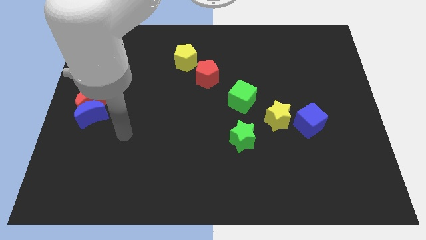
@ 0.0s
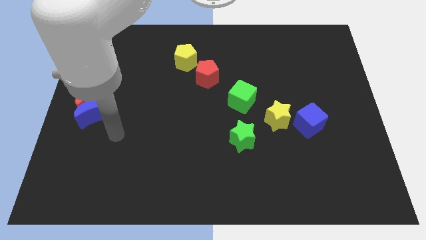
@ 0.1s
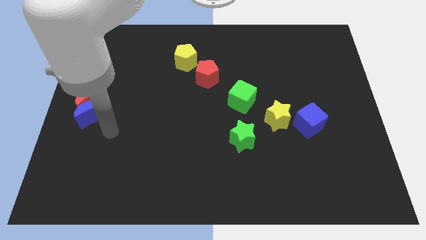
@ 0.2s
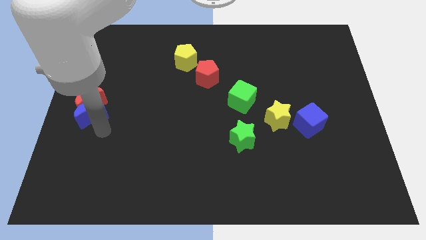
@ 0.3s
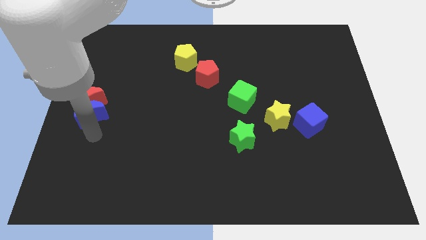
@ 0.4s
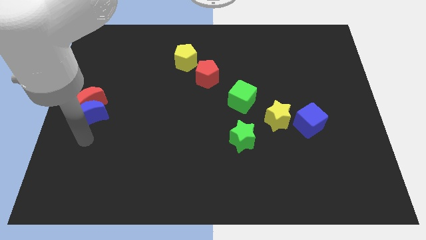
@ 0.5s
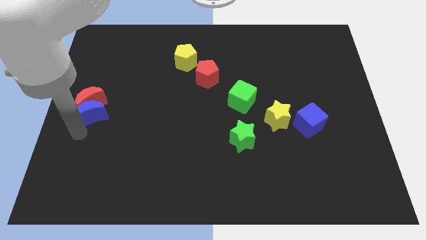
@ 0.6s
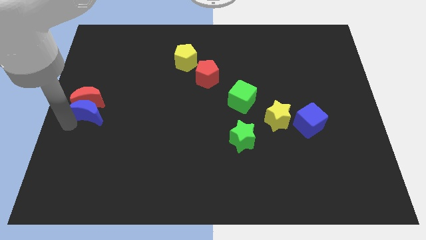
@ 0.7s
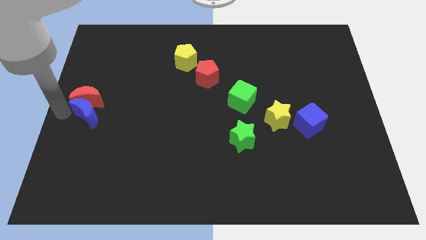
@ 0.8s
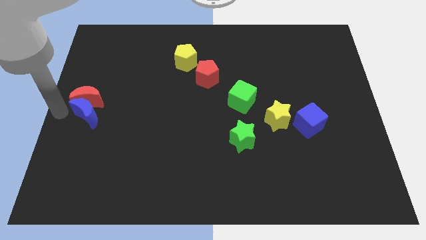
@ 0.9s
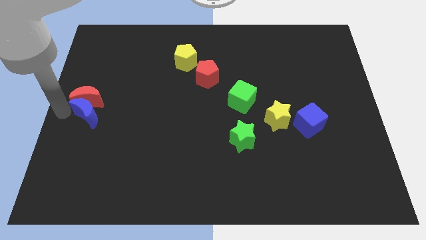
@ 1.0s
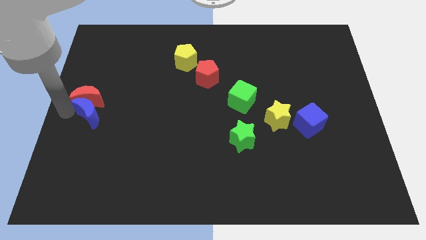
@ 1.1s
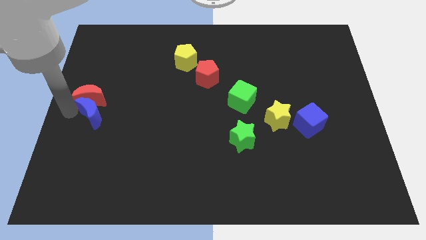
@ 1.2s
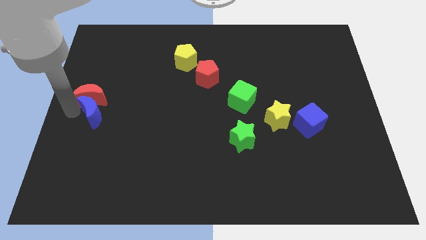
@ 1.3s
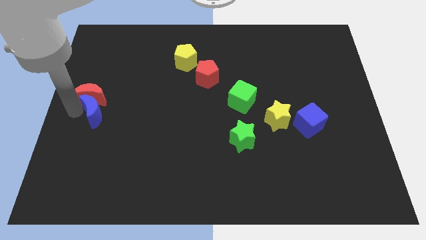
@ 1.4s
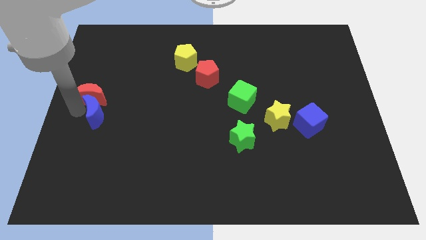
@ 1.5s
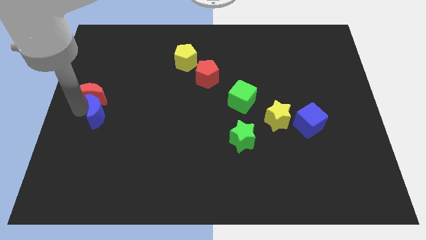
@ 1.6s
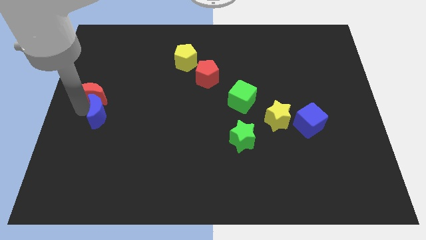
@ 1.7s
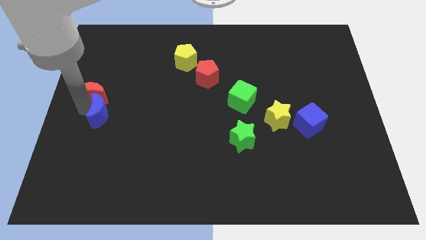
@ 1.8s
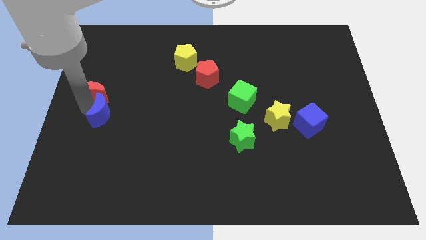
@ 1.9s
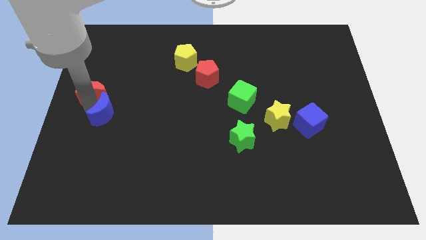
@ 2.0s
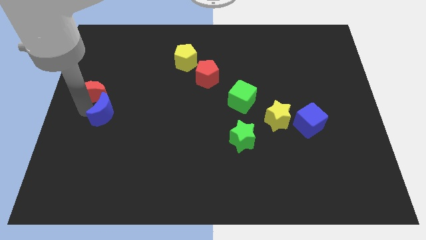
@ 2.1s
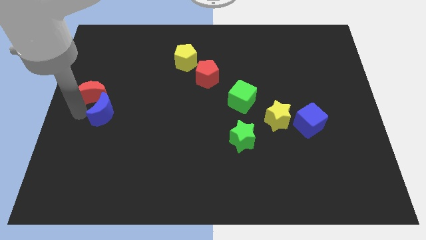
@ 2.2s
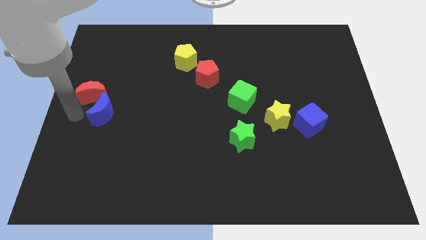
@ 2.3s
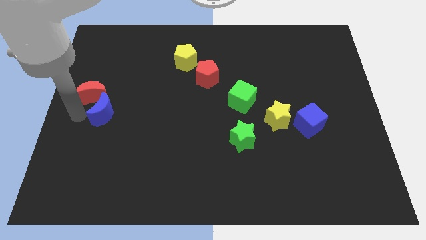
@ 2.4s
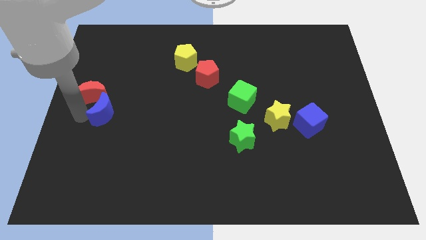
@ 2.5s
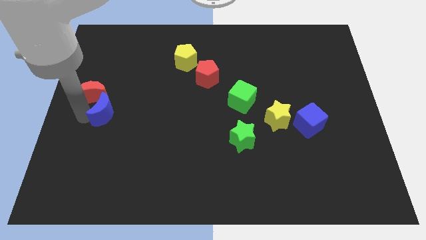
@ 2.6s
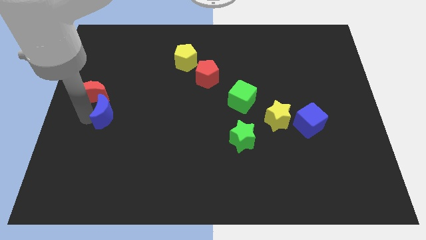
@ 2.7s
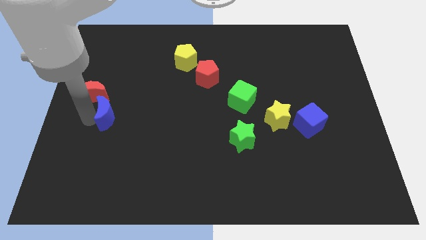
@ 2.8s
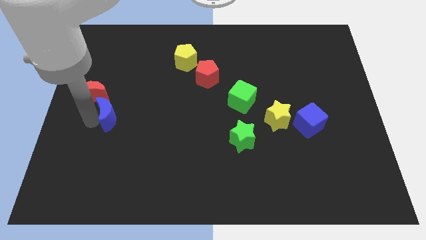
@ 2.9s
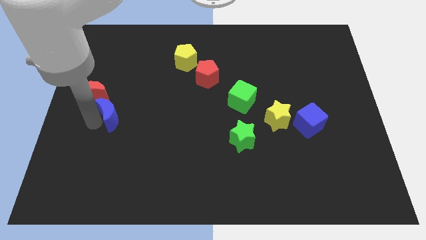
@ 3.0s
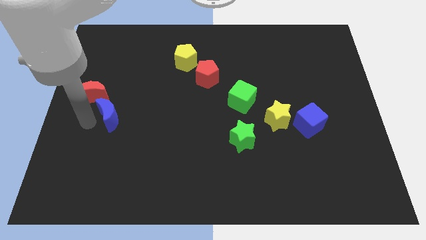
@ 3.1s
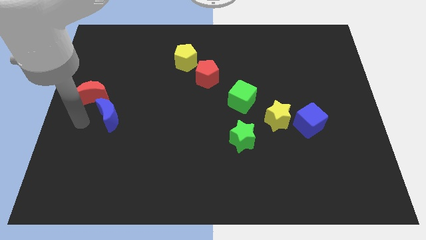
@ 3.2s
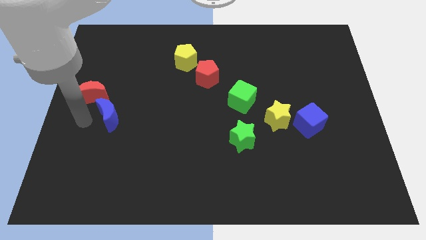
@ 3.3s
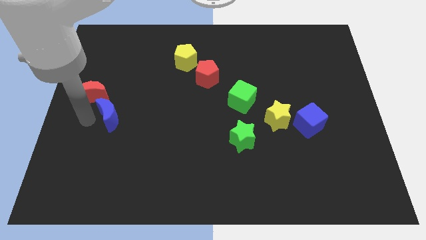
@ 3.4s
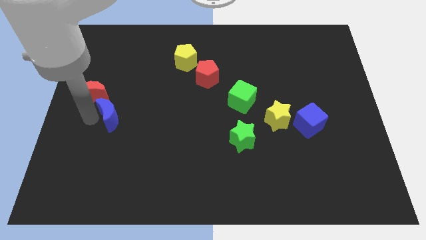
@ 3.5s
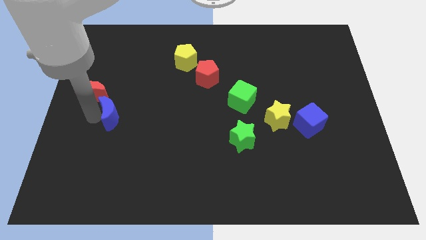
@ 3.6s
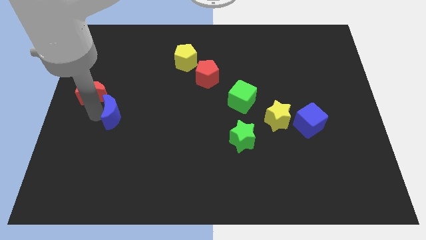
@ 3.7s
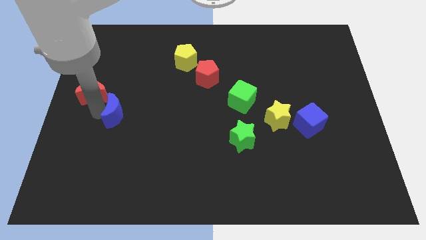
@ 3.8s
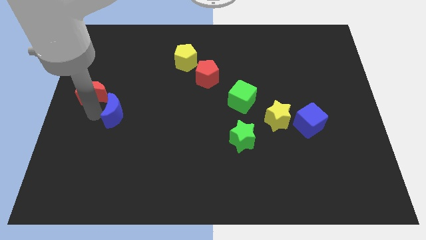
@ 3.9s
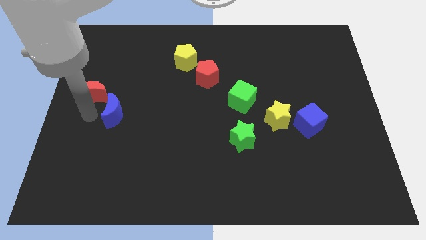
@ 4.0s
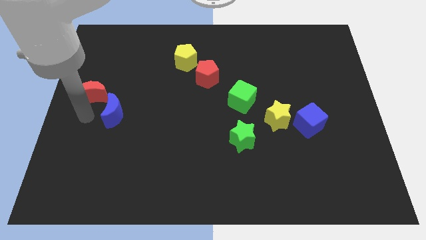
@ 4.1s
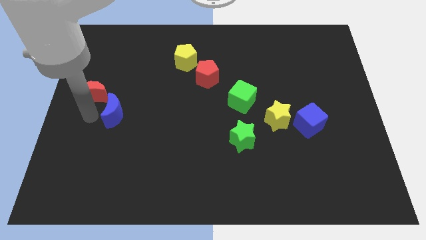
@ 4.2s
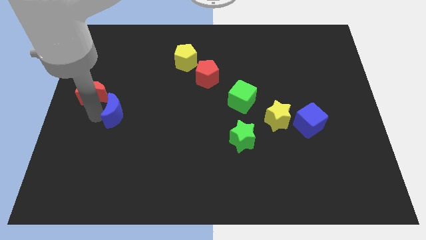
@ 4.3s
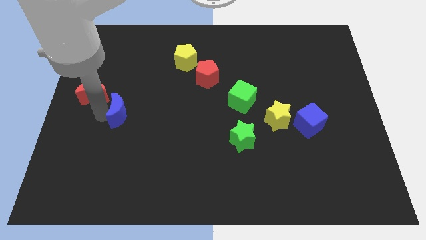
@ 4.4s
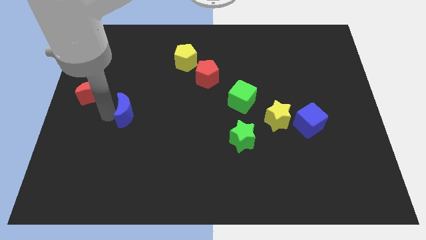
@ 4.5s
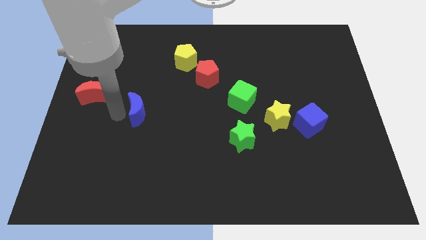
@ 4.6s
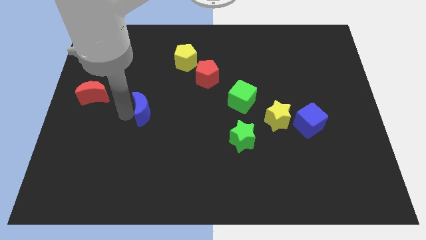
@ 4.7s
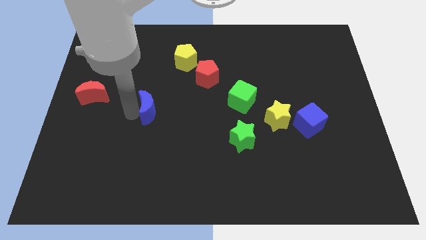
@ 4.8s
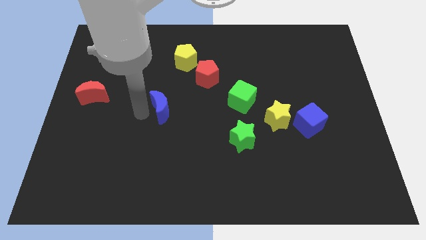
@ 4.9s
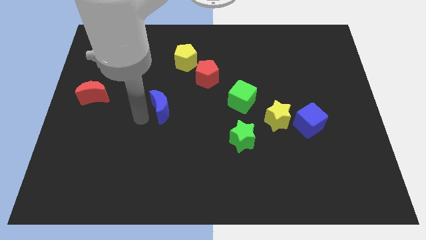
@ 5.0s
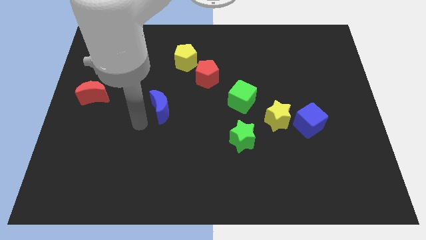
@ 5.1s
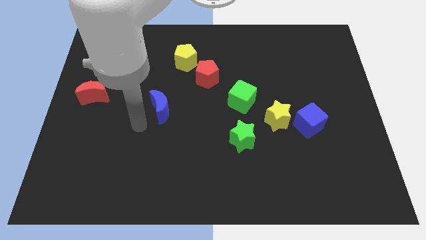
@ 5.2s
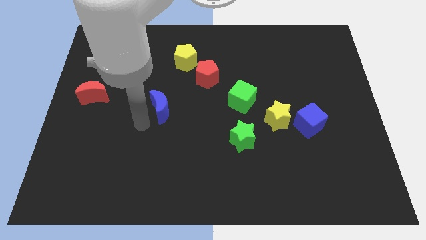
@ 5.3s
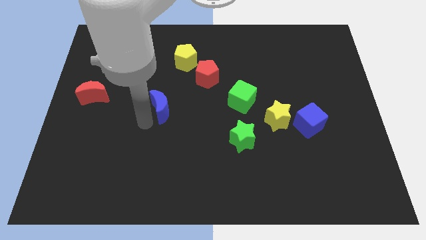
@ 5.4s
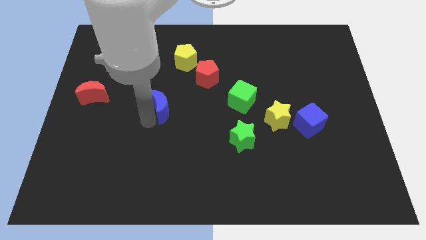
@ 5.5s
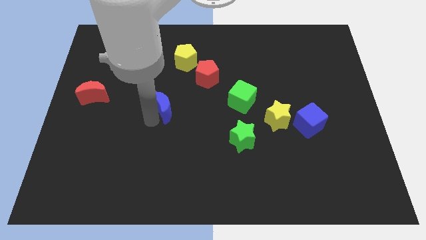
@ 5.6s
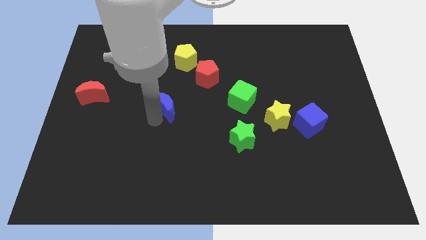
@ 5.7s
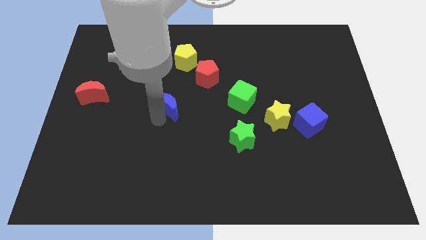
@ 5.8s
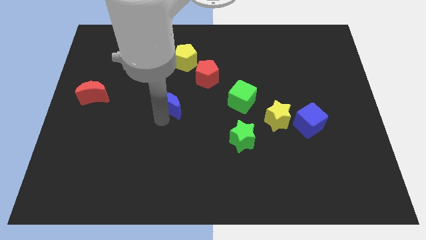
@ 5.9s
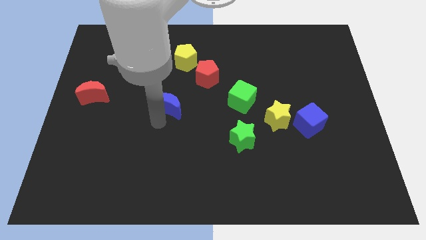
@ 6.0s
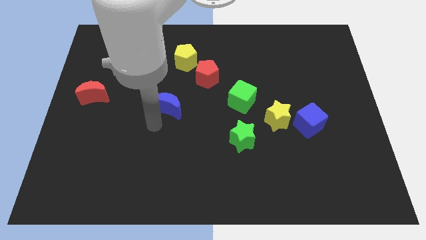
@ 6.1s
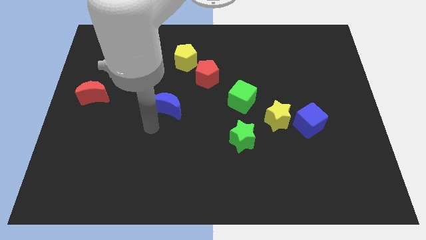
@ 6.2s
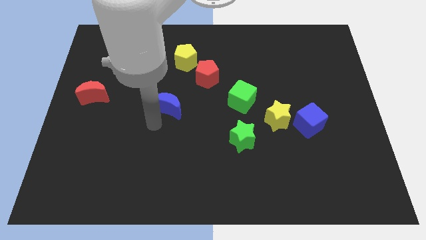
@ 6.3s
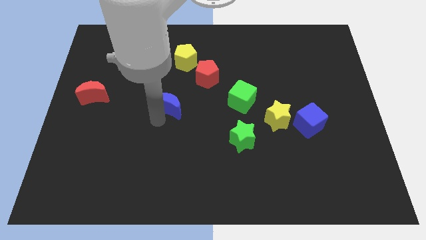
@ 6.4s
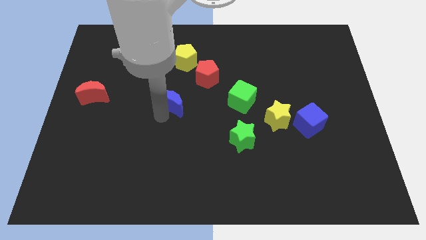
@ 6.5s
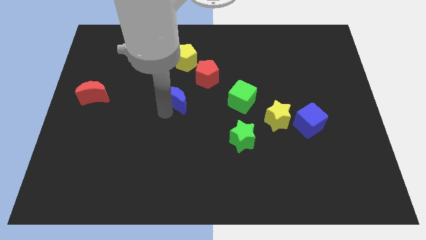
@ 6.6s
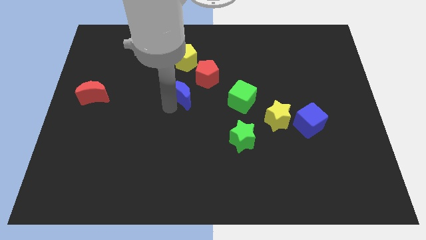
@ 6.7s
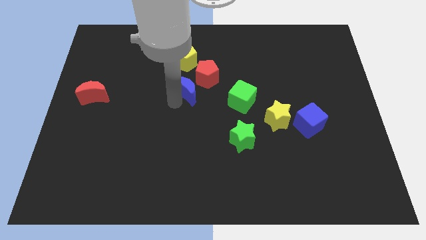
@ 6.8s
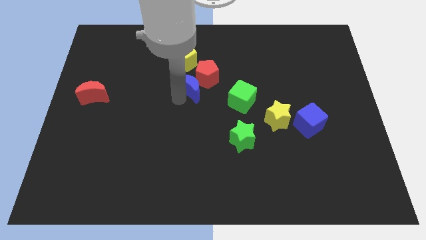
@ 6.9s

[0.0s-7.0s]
put the blue moon next to the red pentagon
